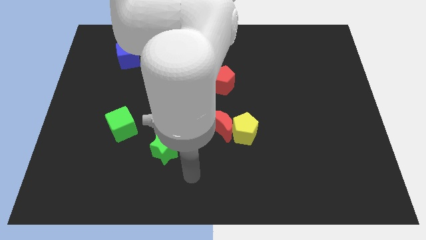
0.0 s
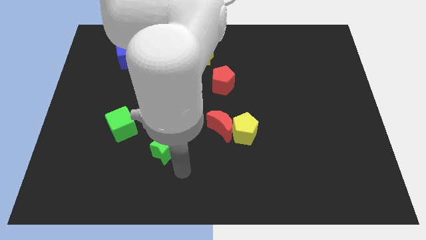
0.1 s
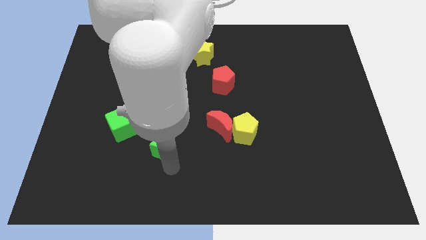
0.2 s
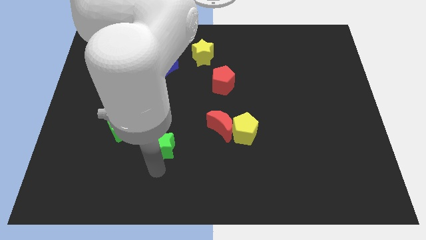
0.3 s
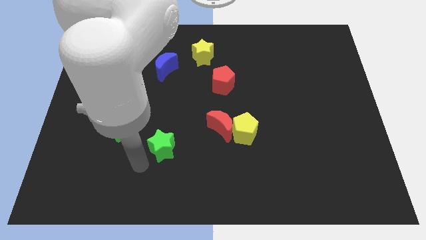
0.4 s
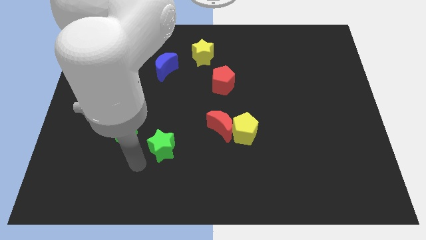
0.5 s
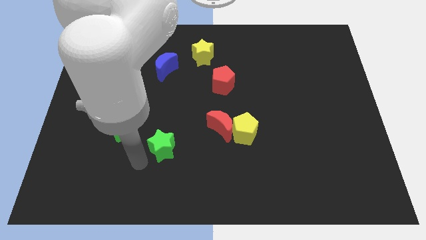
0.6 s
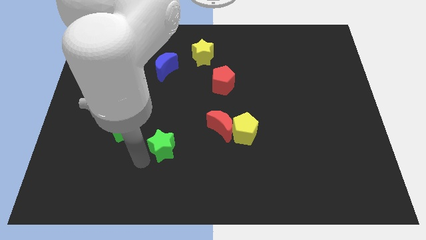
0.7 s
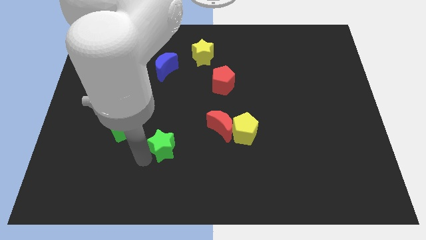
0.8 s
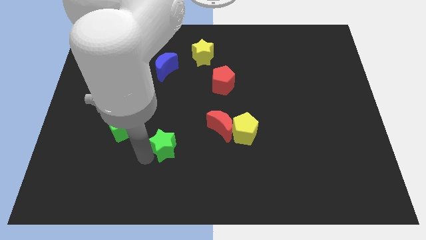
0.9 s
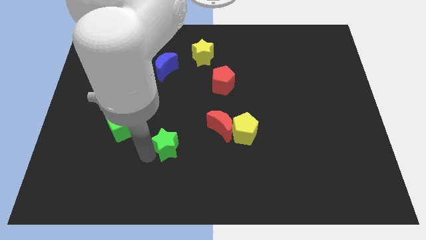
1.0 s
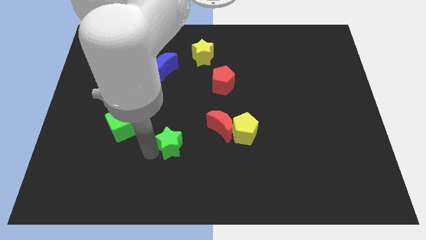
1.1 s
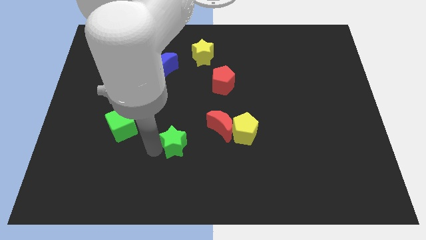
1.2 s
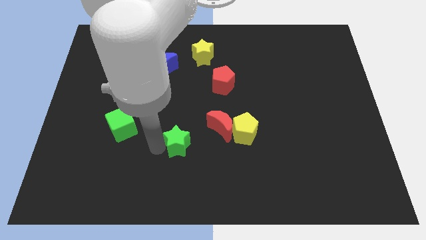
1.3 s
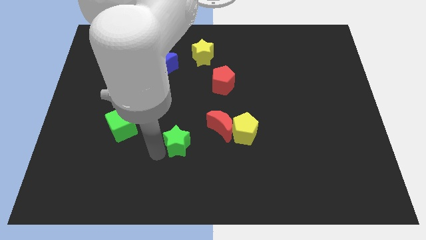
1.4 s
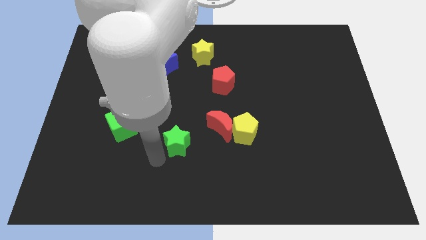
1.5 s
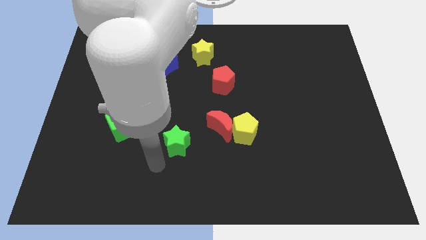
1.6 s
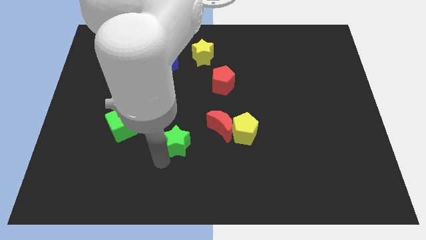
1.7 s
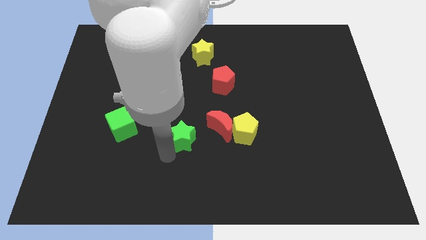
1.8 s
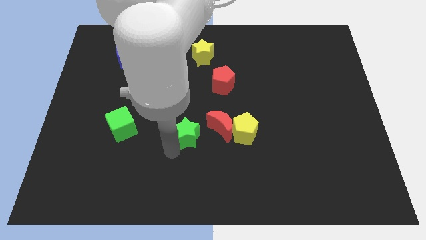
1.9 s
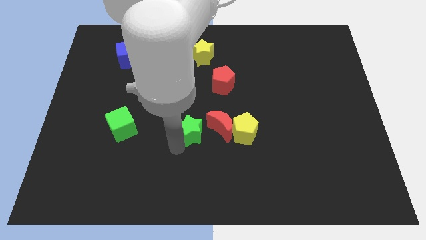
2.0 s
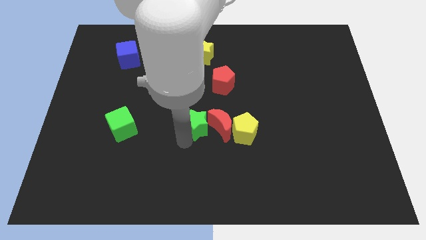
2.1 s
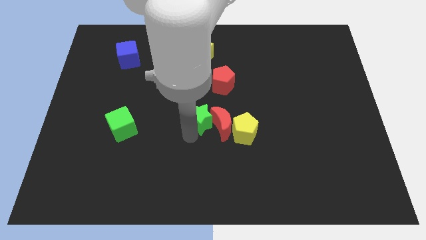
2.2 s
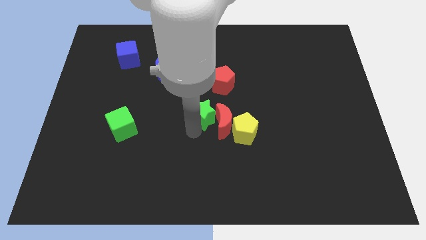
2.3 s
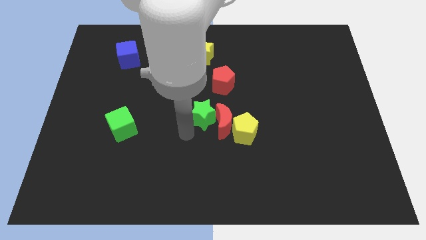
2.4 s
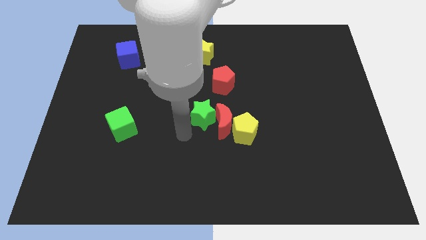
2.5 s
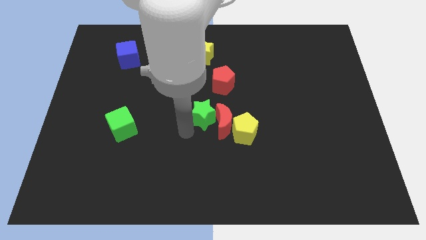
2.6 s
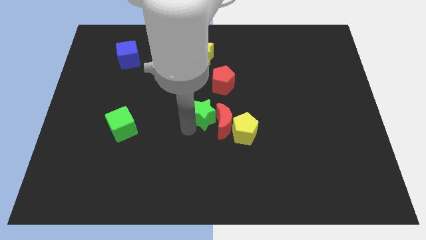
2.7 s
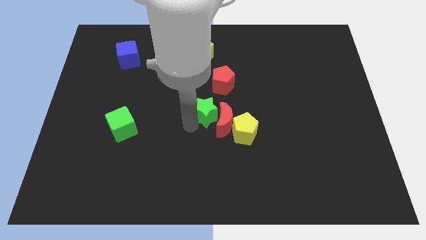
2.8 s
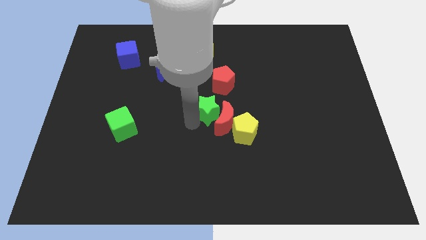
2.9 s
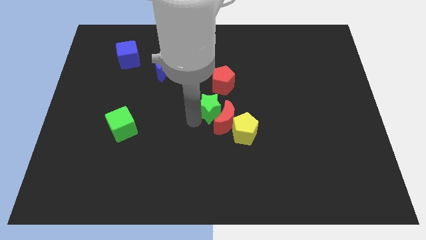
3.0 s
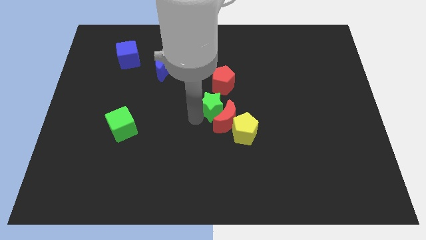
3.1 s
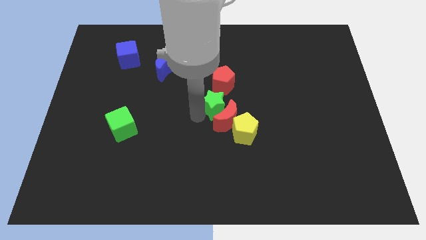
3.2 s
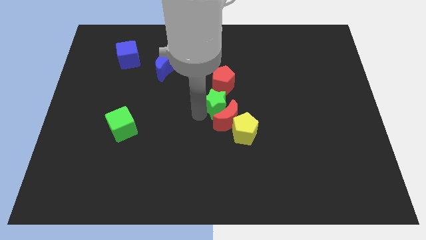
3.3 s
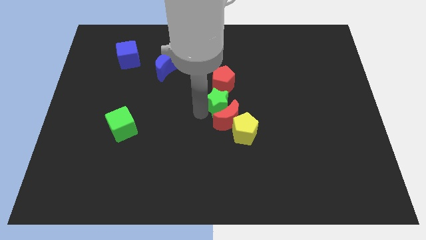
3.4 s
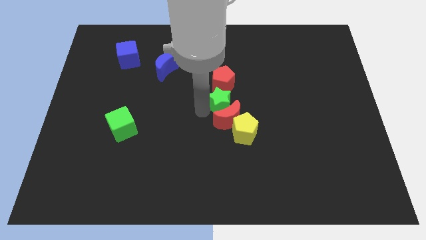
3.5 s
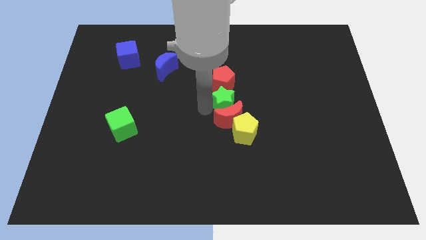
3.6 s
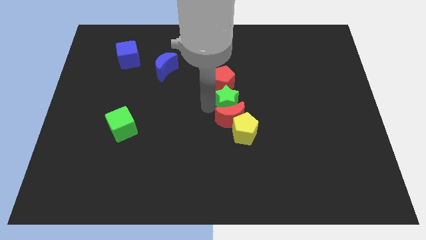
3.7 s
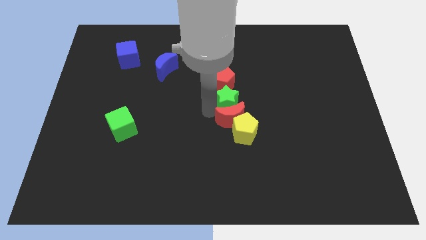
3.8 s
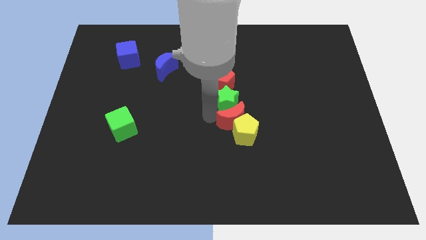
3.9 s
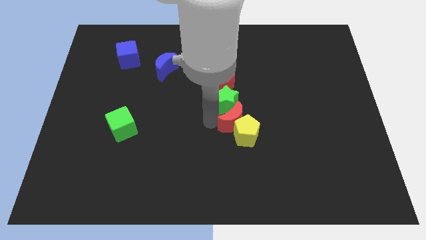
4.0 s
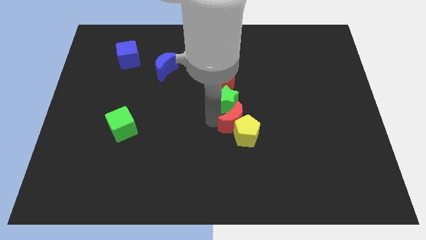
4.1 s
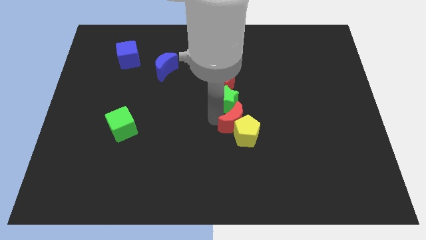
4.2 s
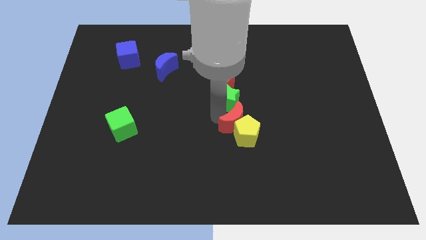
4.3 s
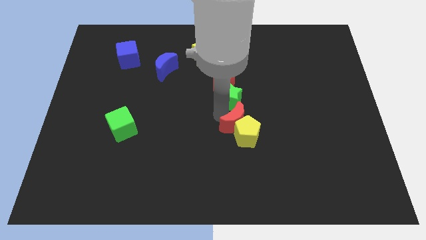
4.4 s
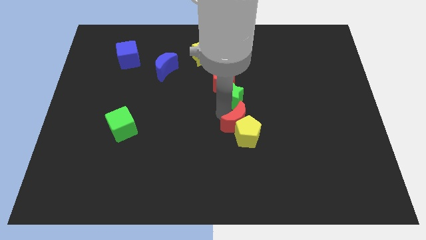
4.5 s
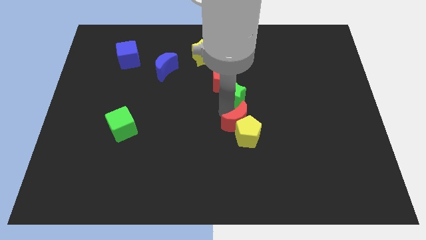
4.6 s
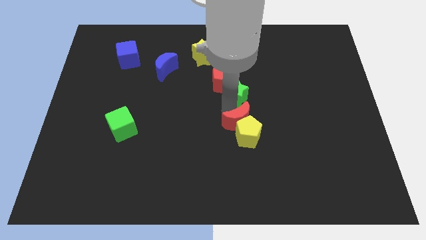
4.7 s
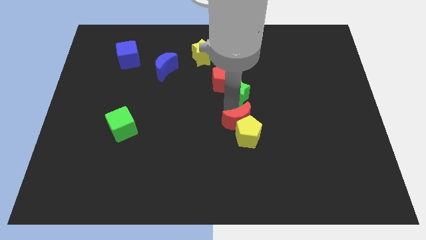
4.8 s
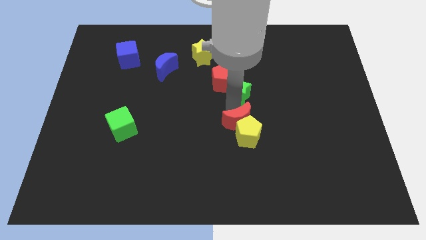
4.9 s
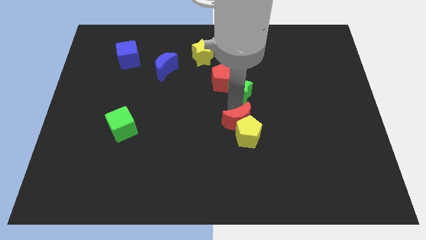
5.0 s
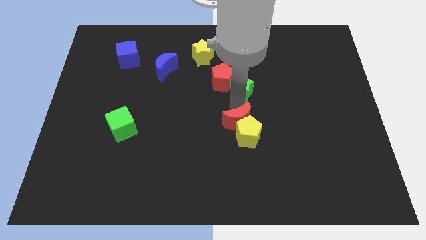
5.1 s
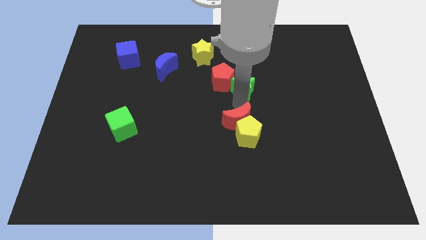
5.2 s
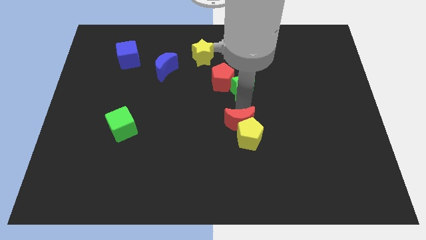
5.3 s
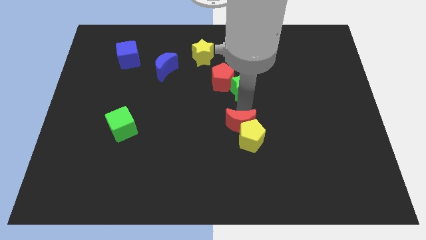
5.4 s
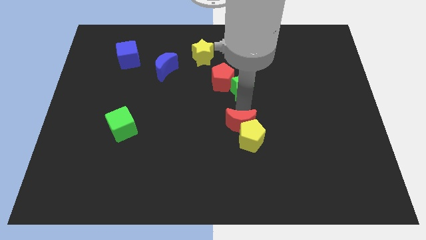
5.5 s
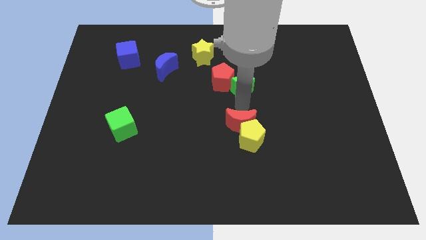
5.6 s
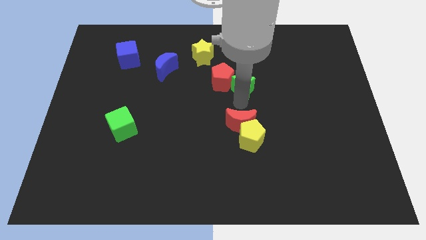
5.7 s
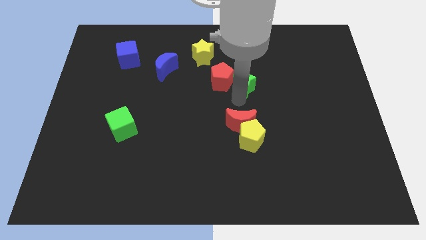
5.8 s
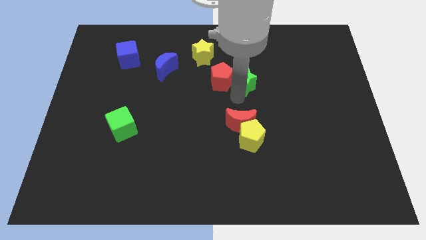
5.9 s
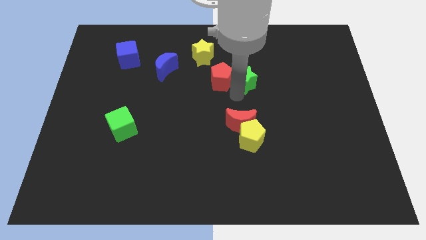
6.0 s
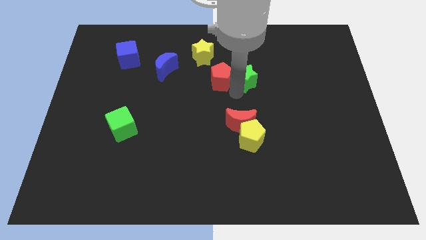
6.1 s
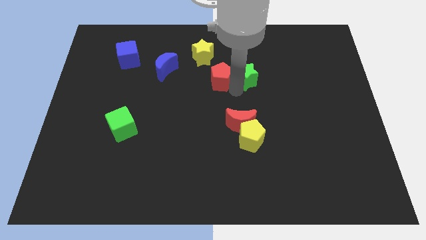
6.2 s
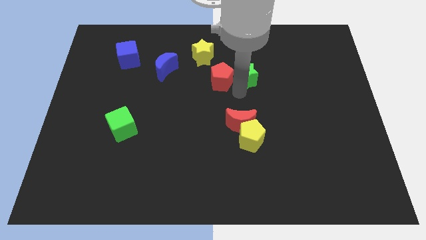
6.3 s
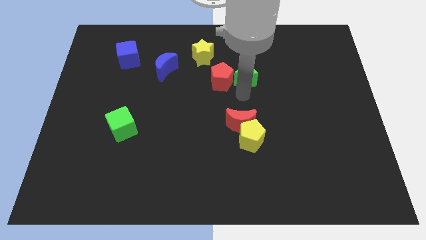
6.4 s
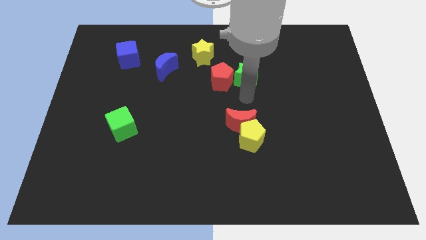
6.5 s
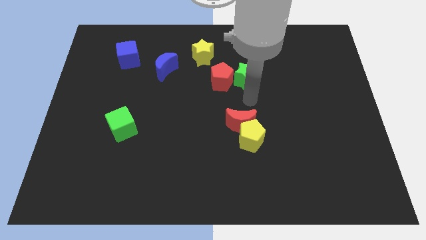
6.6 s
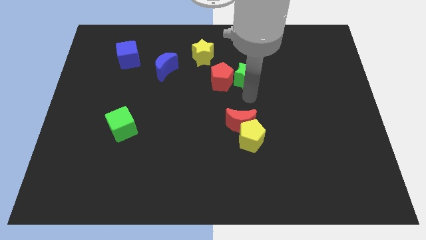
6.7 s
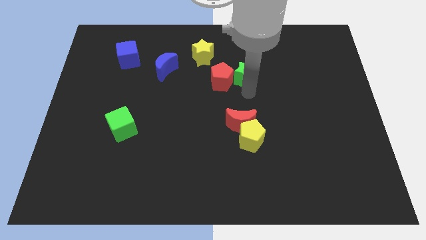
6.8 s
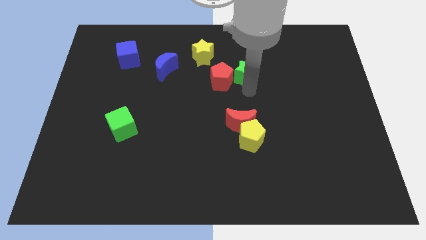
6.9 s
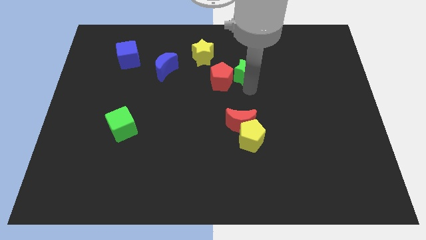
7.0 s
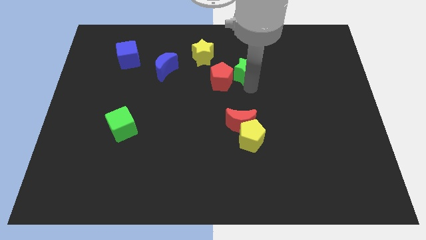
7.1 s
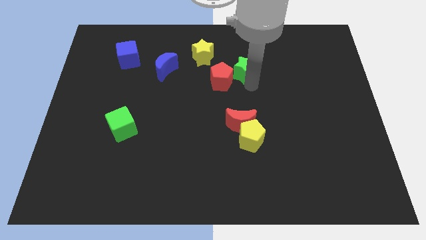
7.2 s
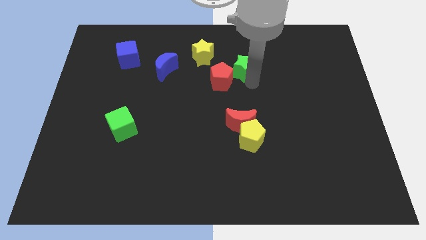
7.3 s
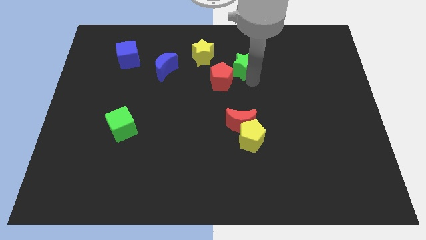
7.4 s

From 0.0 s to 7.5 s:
push the green star to the right of the yellow star
